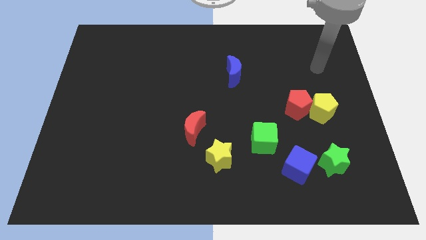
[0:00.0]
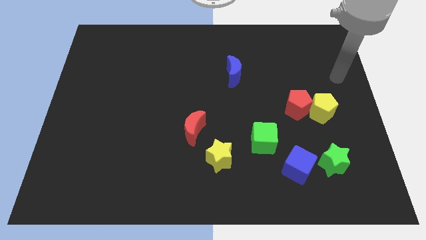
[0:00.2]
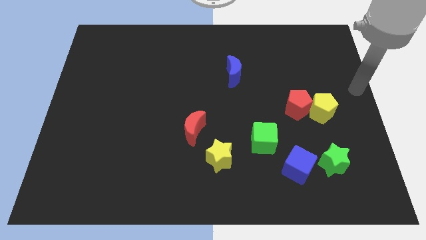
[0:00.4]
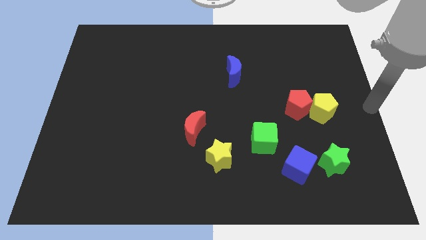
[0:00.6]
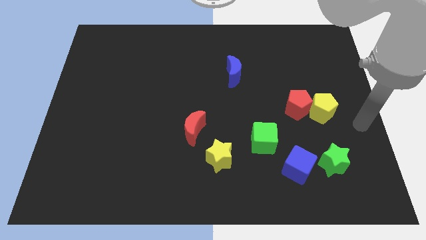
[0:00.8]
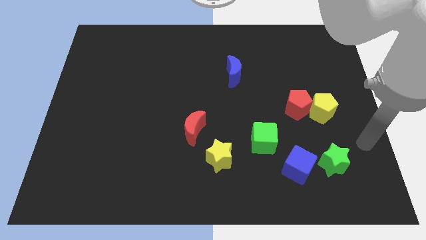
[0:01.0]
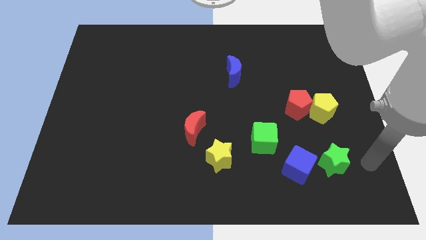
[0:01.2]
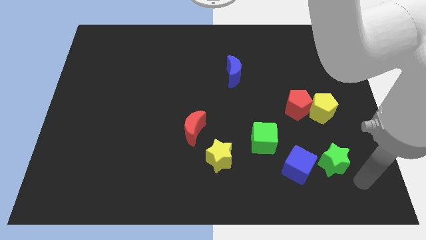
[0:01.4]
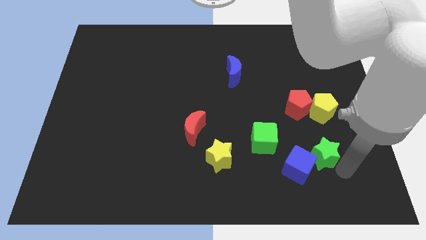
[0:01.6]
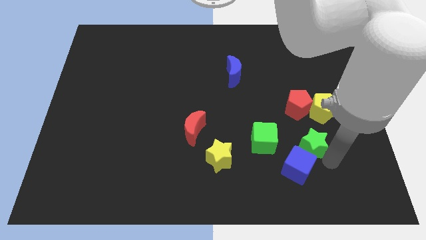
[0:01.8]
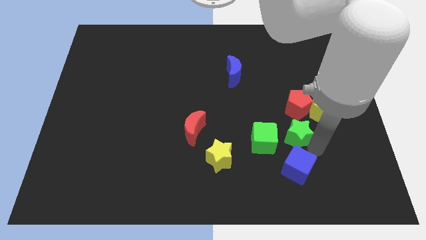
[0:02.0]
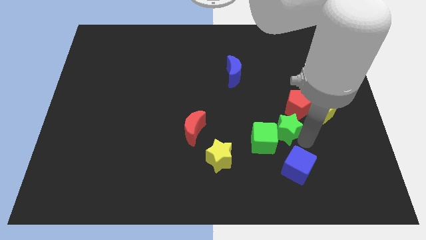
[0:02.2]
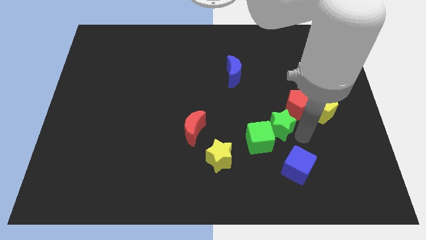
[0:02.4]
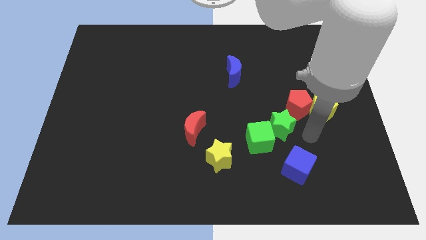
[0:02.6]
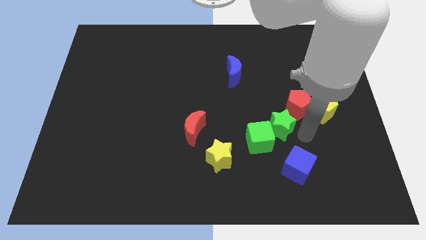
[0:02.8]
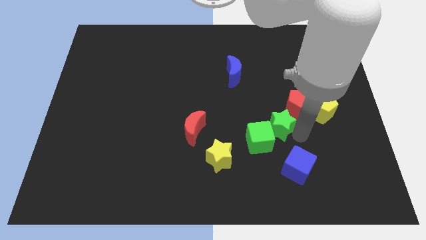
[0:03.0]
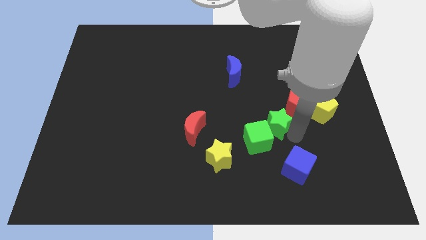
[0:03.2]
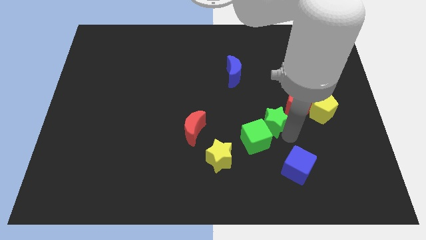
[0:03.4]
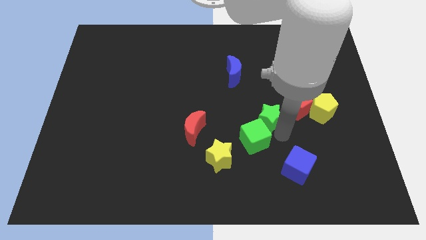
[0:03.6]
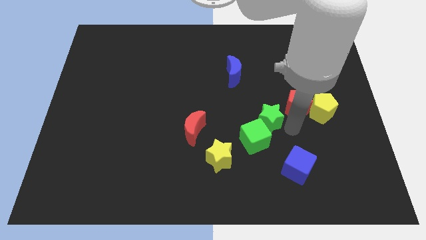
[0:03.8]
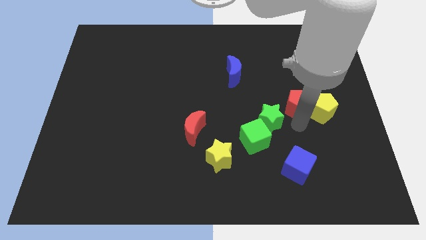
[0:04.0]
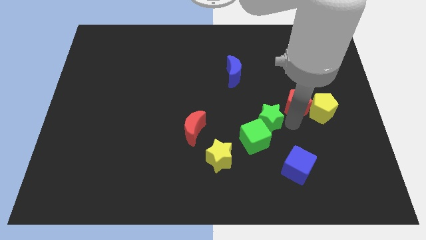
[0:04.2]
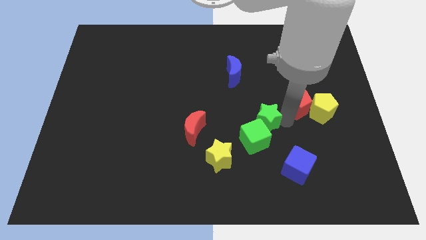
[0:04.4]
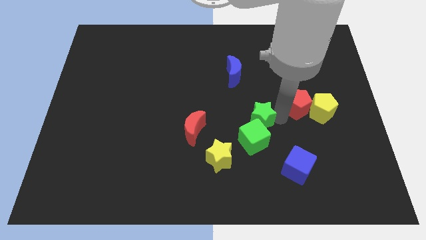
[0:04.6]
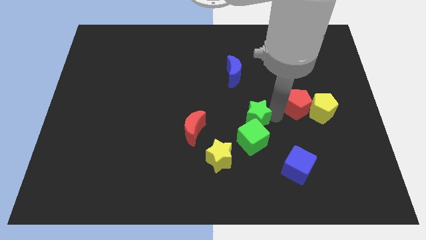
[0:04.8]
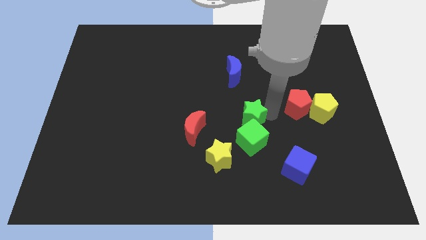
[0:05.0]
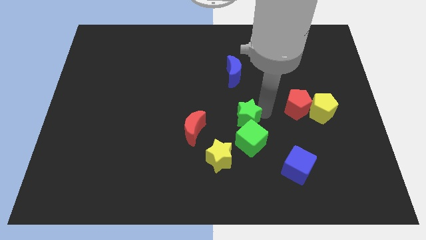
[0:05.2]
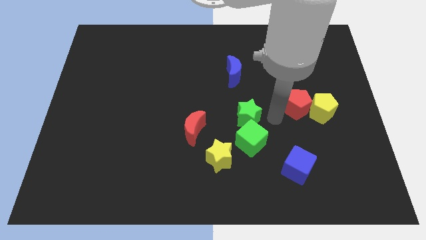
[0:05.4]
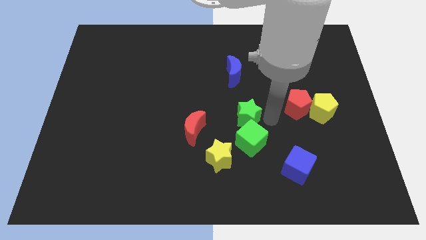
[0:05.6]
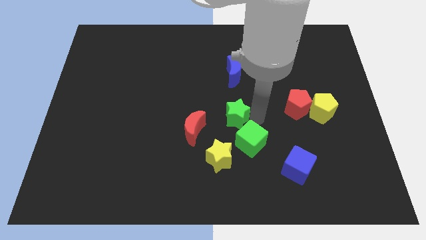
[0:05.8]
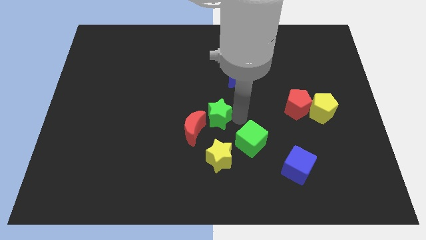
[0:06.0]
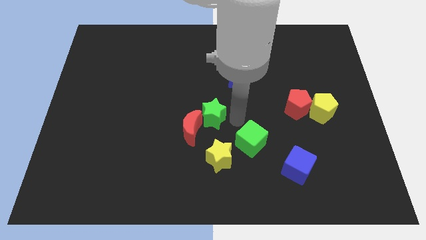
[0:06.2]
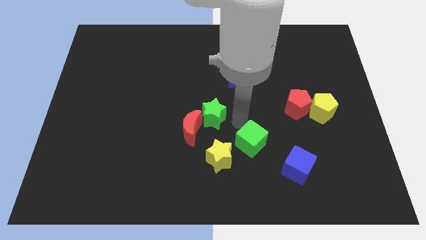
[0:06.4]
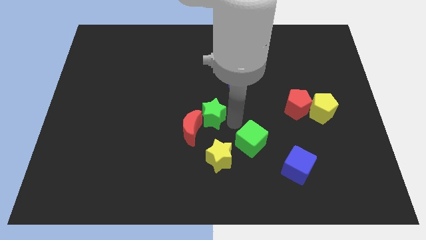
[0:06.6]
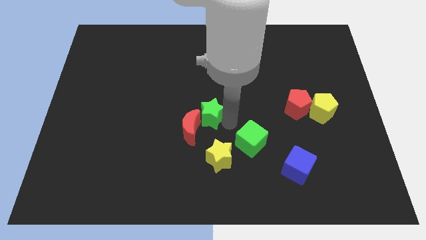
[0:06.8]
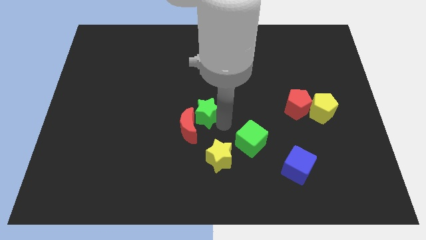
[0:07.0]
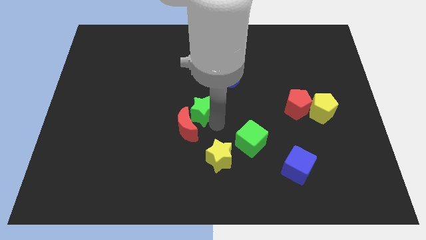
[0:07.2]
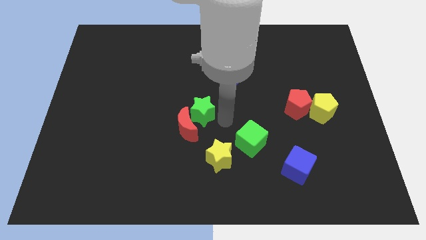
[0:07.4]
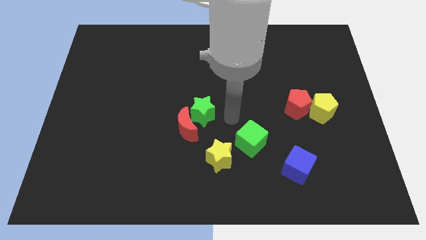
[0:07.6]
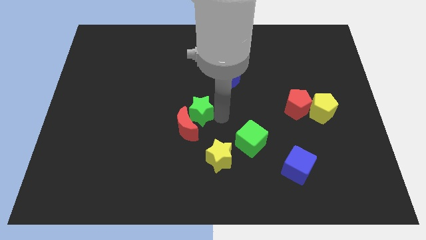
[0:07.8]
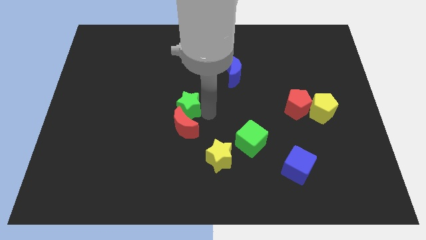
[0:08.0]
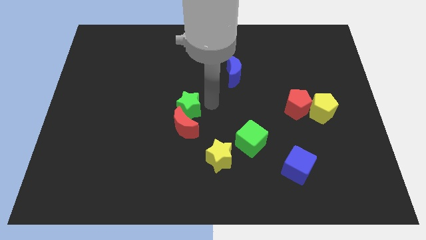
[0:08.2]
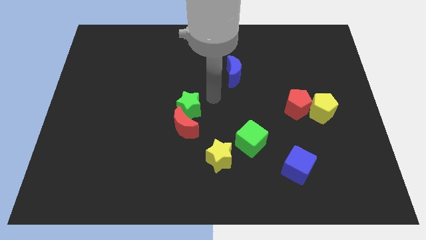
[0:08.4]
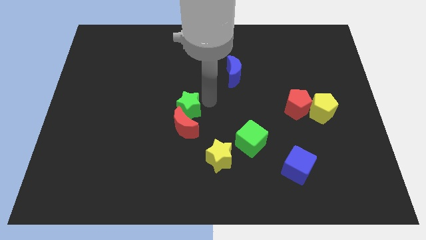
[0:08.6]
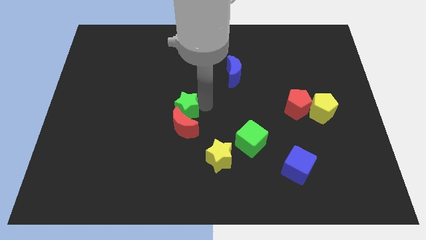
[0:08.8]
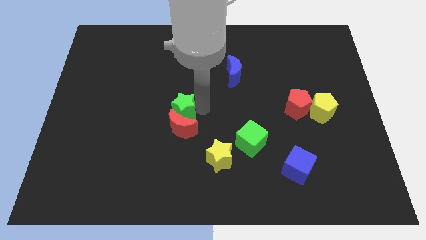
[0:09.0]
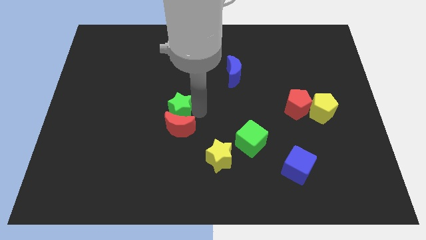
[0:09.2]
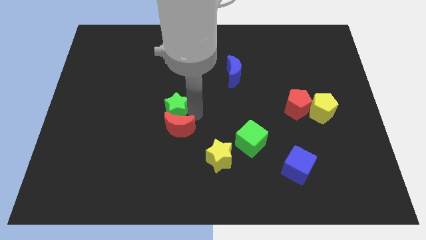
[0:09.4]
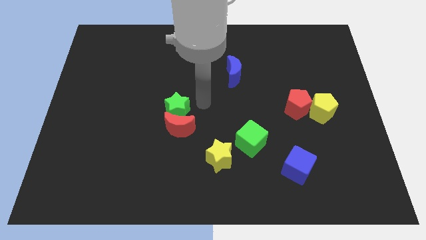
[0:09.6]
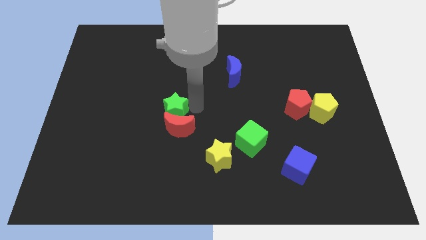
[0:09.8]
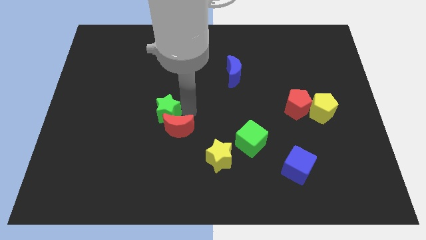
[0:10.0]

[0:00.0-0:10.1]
move the green star to the left side of the red moon

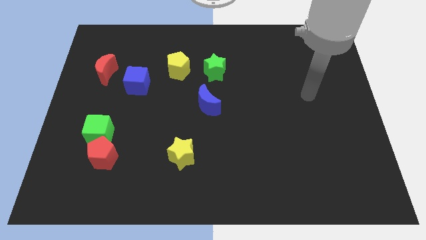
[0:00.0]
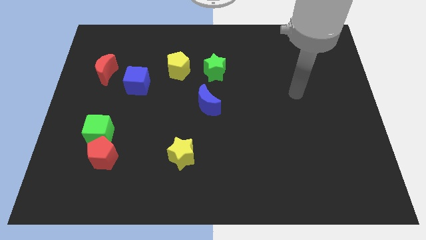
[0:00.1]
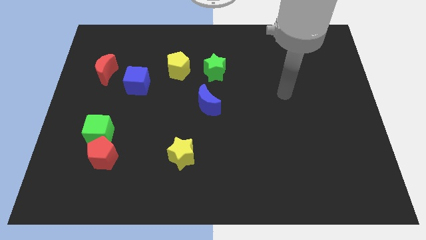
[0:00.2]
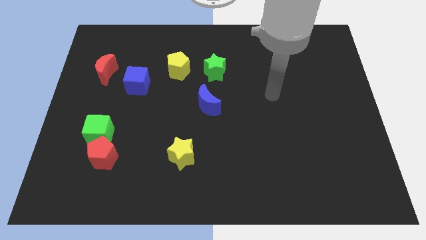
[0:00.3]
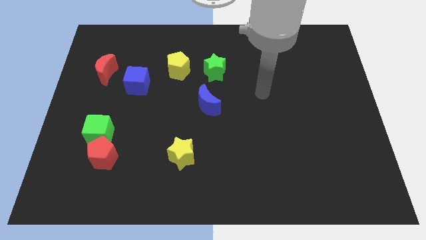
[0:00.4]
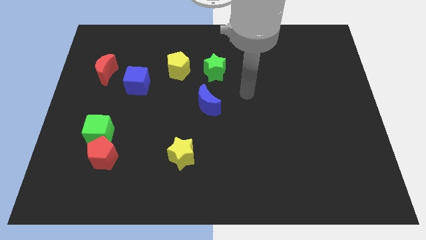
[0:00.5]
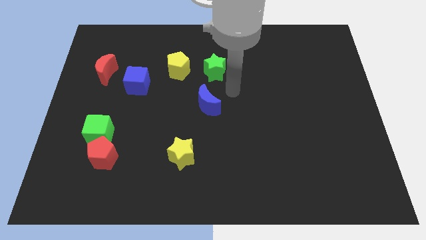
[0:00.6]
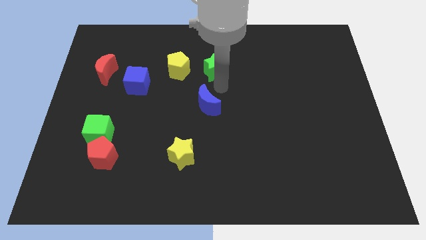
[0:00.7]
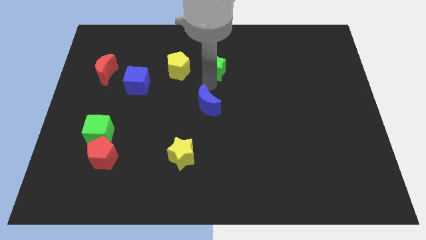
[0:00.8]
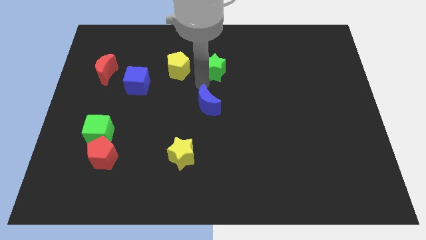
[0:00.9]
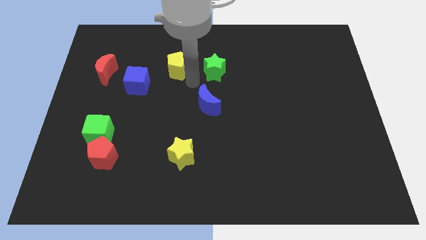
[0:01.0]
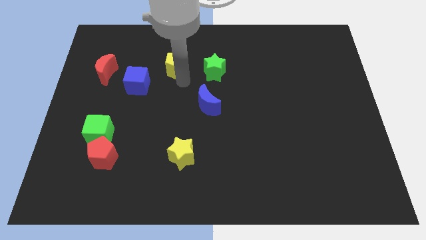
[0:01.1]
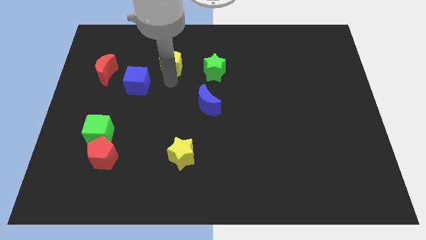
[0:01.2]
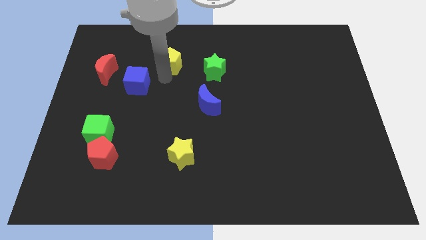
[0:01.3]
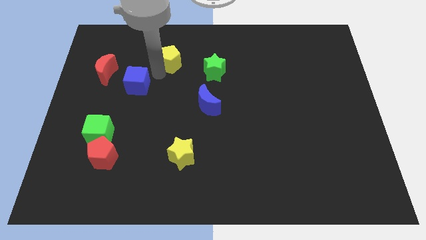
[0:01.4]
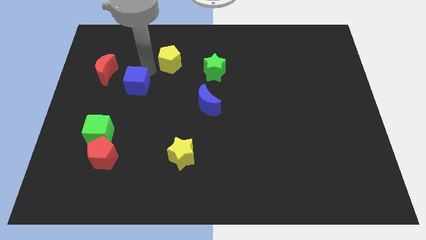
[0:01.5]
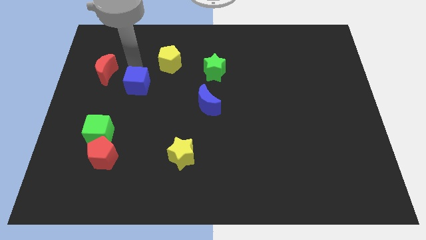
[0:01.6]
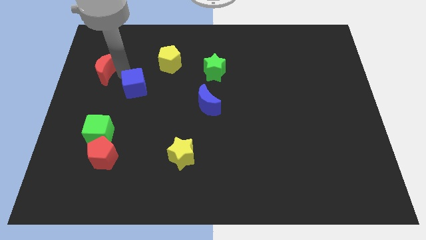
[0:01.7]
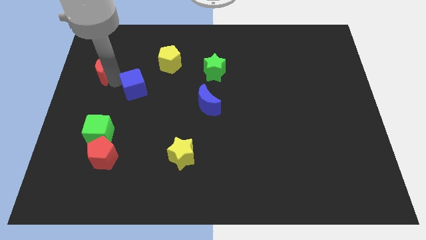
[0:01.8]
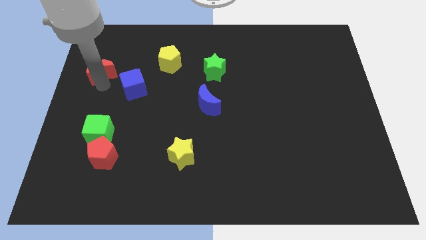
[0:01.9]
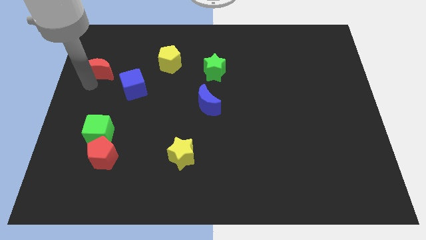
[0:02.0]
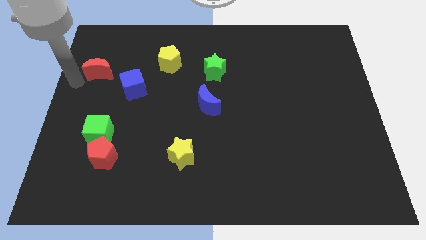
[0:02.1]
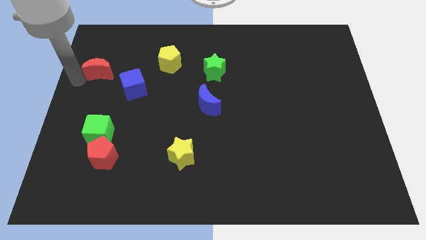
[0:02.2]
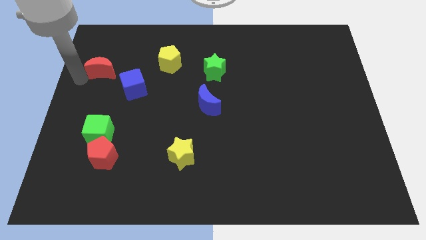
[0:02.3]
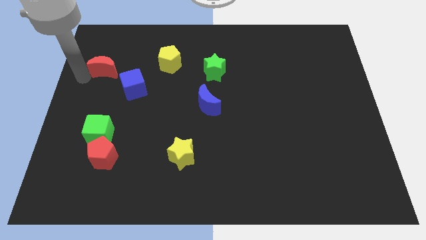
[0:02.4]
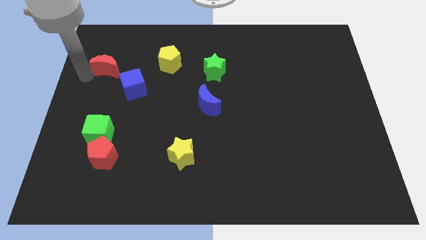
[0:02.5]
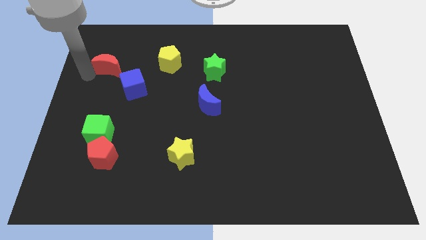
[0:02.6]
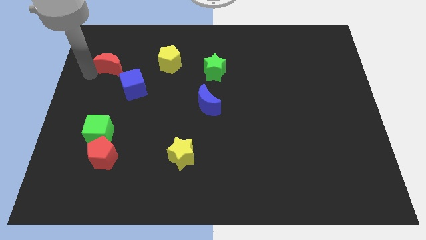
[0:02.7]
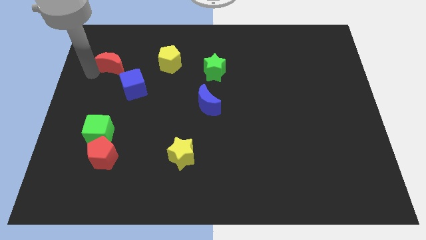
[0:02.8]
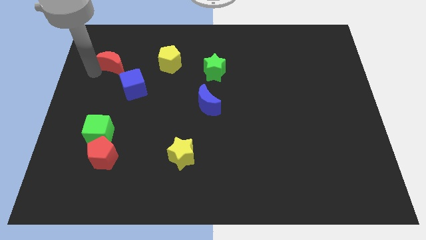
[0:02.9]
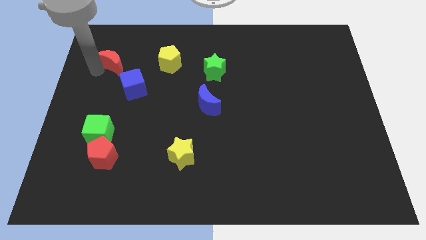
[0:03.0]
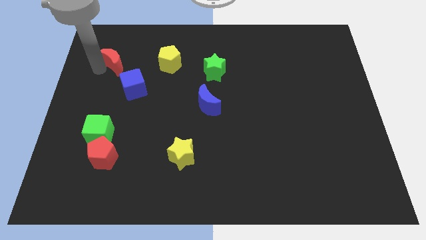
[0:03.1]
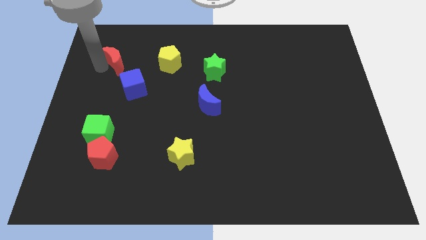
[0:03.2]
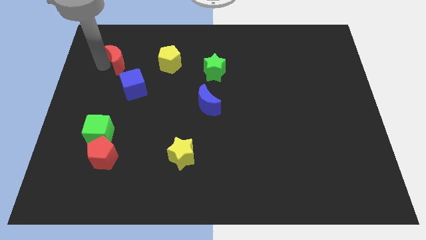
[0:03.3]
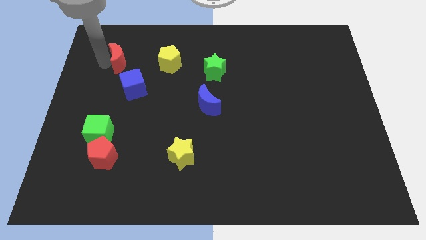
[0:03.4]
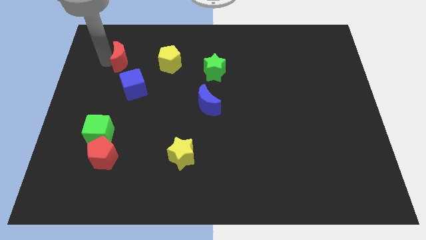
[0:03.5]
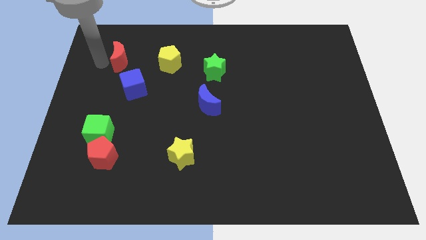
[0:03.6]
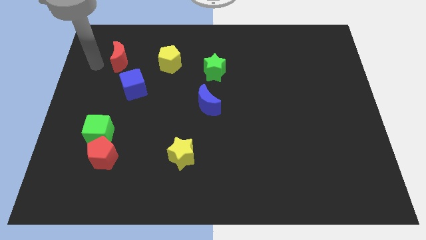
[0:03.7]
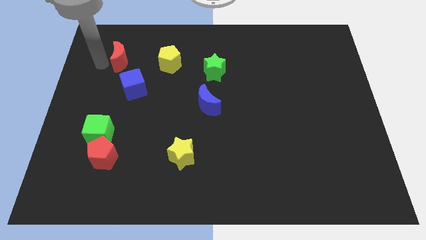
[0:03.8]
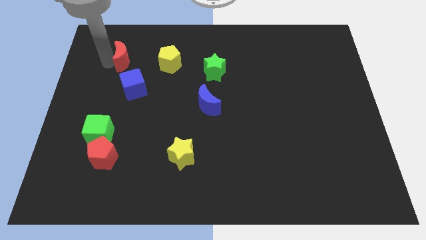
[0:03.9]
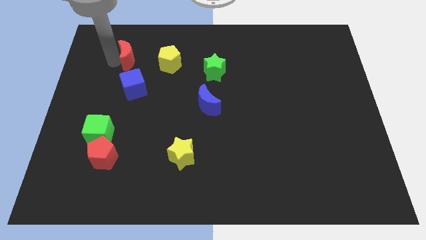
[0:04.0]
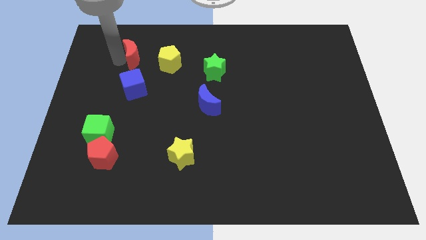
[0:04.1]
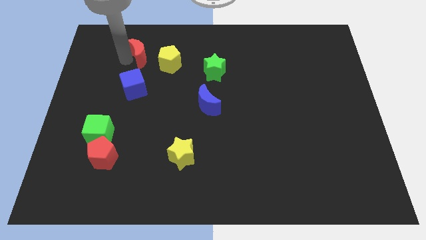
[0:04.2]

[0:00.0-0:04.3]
slide the red moon to the top left side of the yellow pentagon
